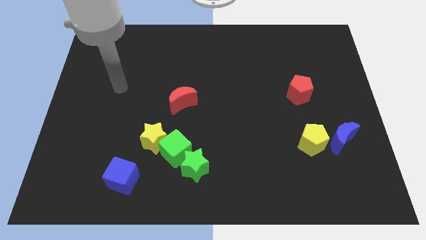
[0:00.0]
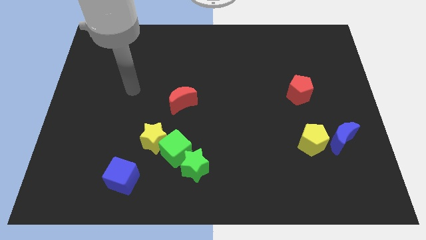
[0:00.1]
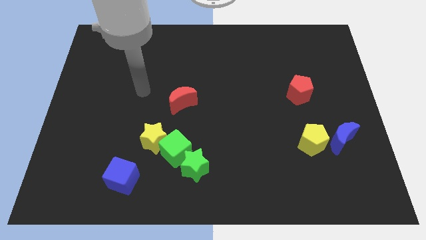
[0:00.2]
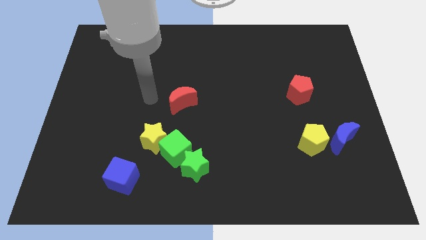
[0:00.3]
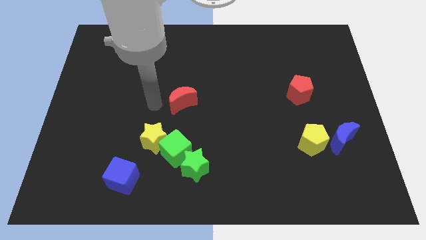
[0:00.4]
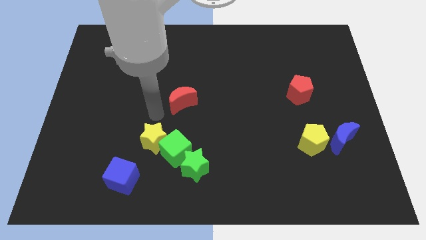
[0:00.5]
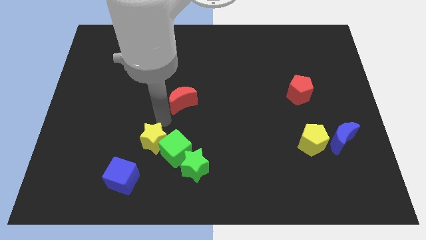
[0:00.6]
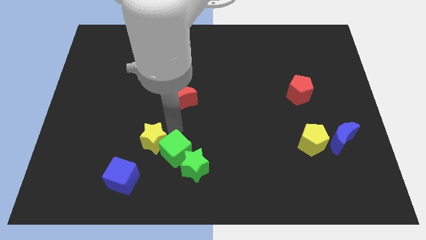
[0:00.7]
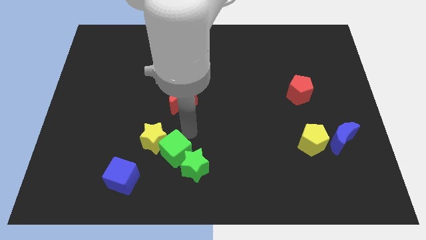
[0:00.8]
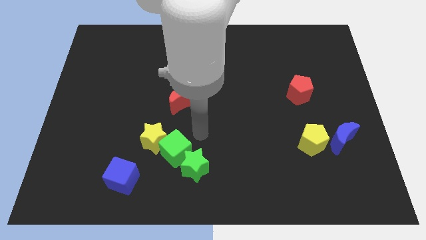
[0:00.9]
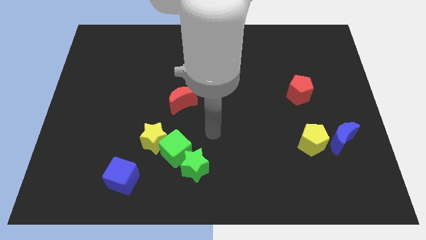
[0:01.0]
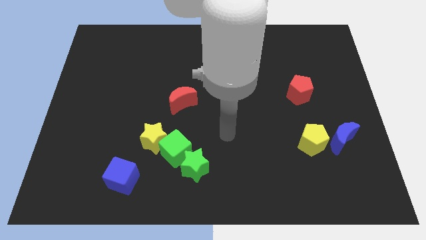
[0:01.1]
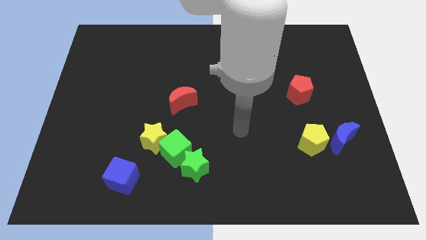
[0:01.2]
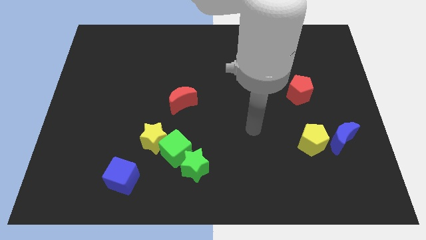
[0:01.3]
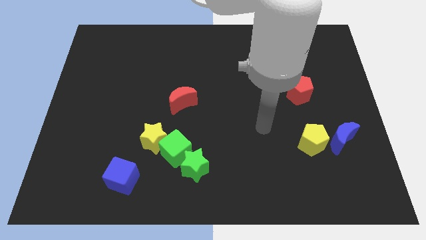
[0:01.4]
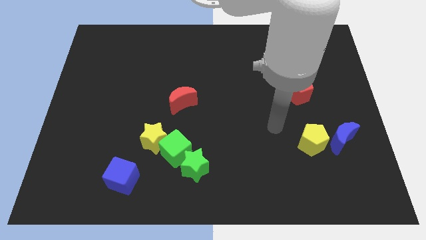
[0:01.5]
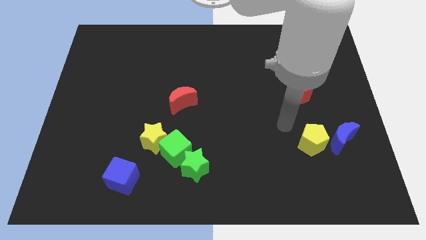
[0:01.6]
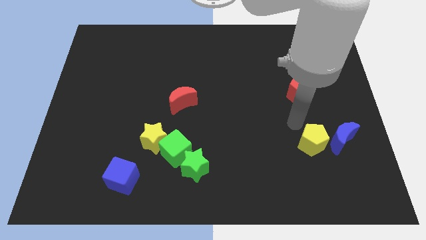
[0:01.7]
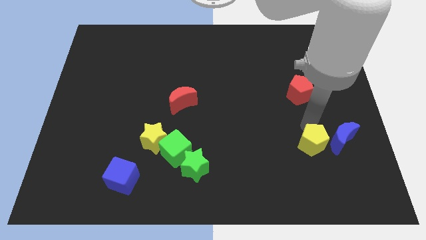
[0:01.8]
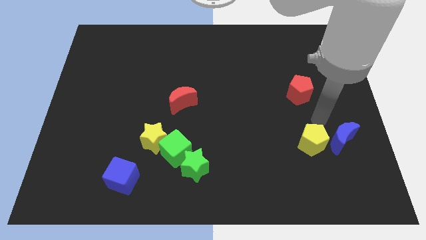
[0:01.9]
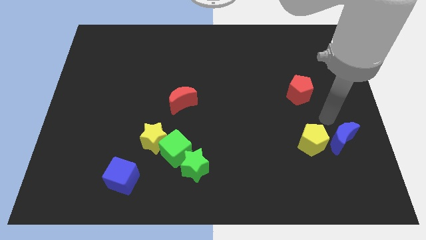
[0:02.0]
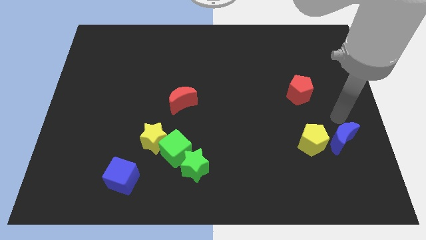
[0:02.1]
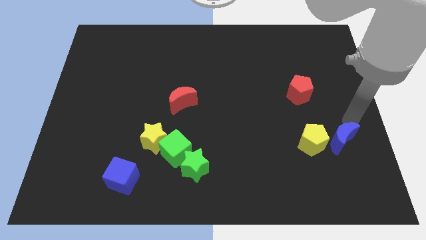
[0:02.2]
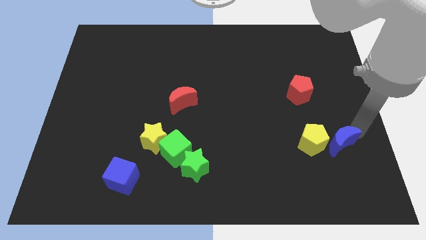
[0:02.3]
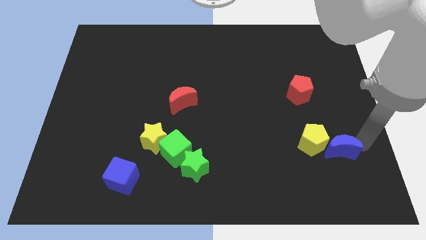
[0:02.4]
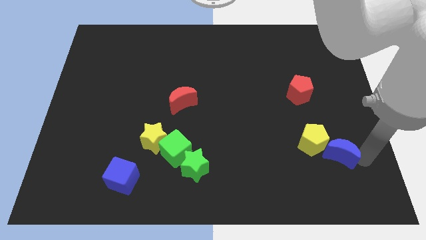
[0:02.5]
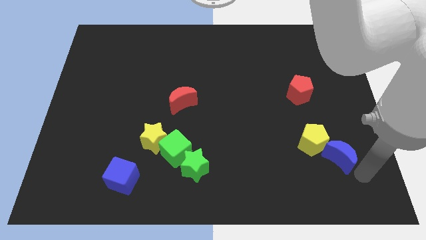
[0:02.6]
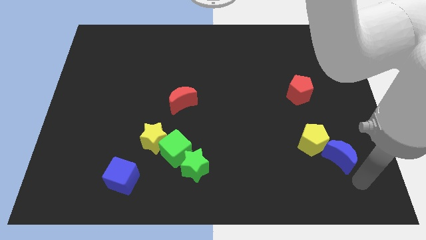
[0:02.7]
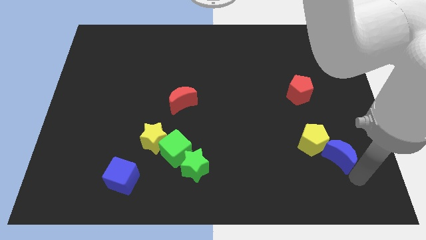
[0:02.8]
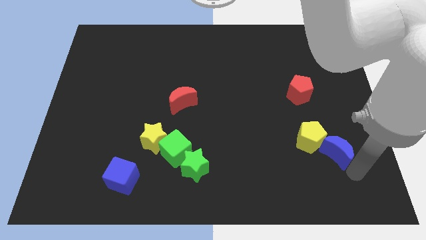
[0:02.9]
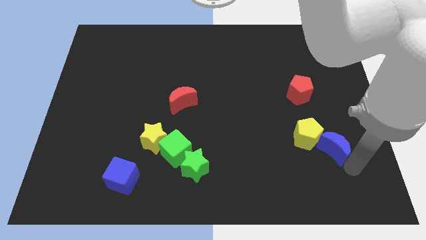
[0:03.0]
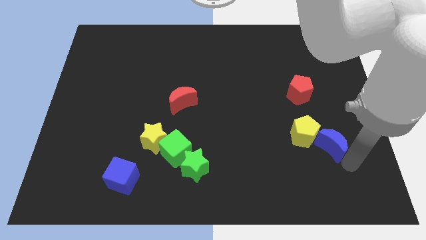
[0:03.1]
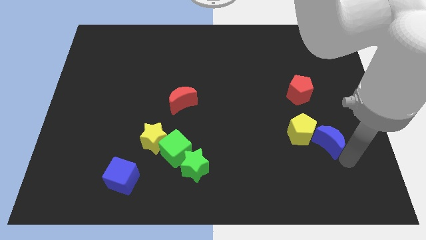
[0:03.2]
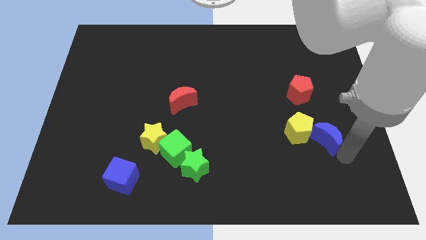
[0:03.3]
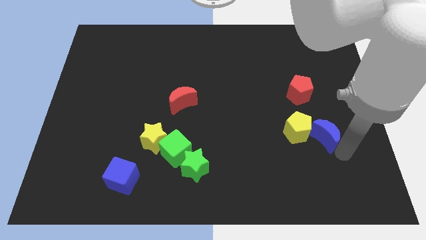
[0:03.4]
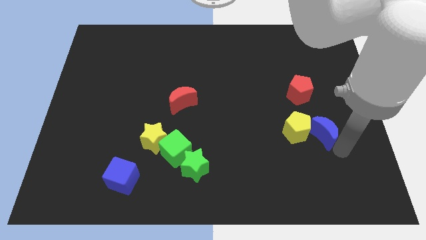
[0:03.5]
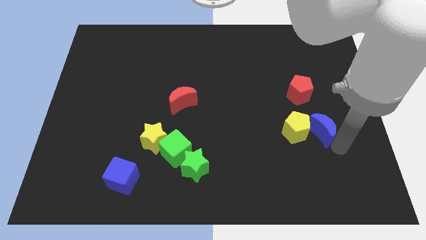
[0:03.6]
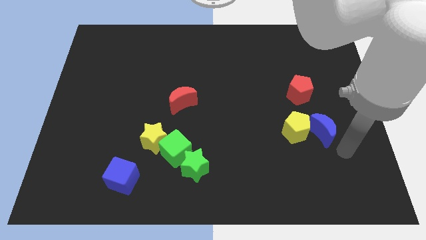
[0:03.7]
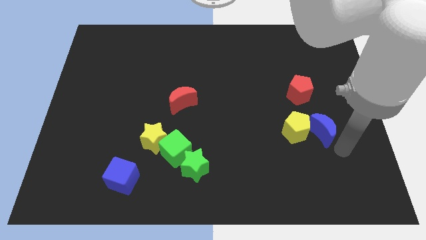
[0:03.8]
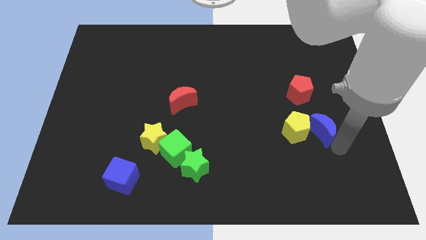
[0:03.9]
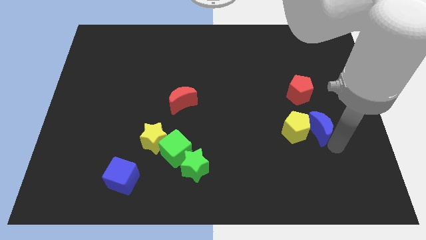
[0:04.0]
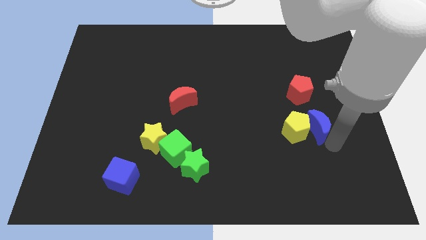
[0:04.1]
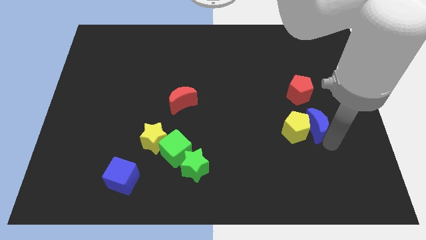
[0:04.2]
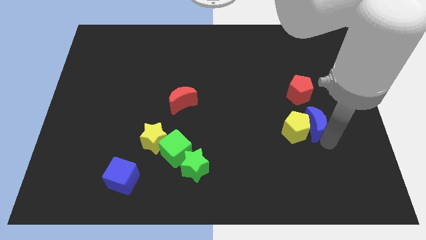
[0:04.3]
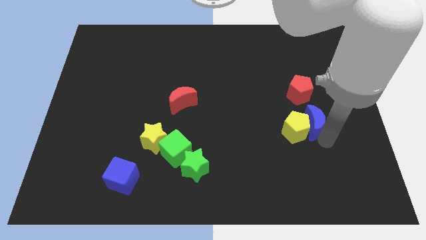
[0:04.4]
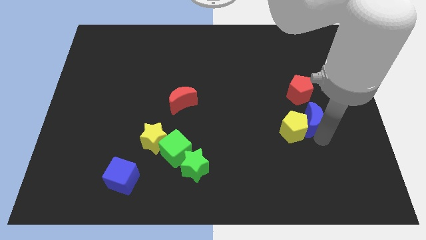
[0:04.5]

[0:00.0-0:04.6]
move the blue moon upwards and left a little bit

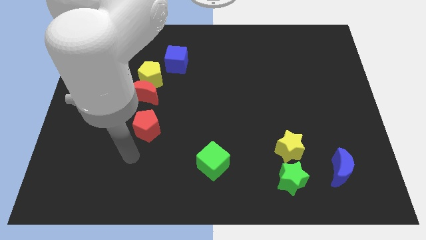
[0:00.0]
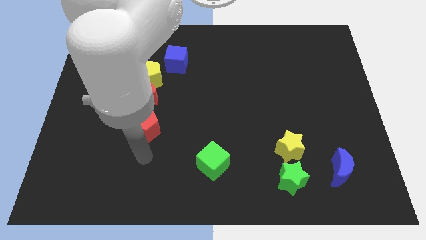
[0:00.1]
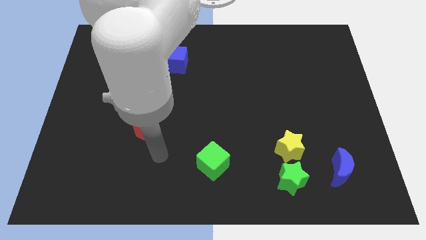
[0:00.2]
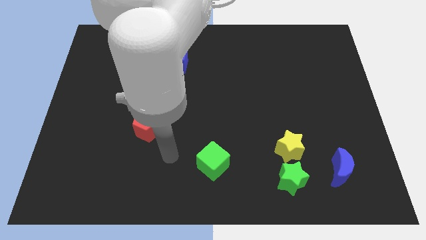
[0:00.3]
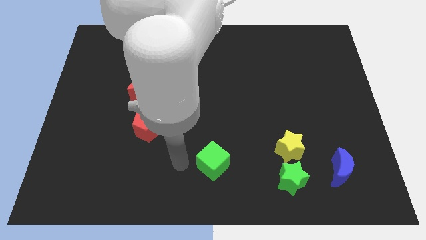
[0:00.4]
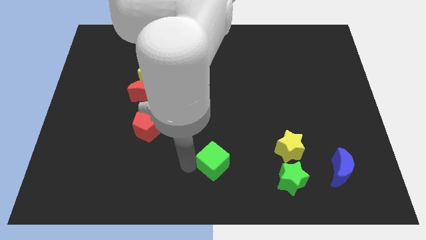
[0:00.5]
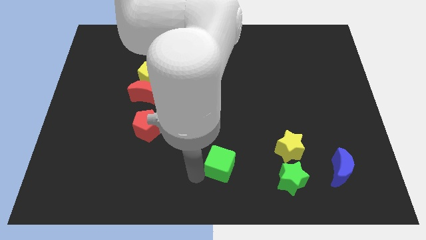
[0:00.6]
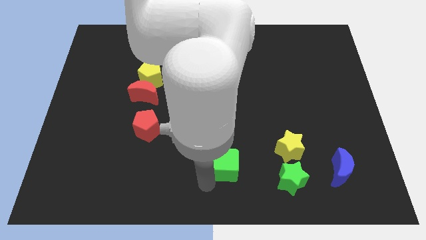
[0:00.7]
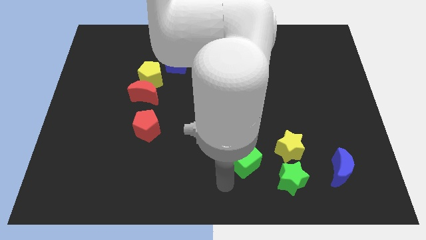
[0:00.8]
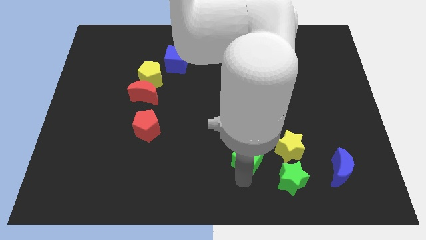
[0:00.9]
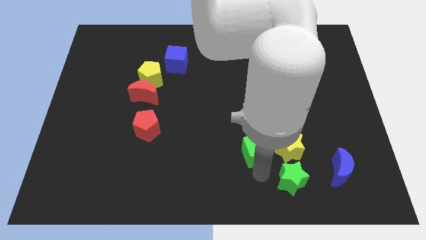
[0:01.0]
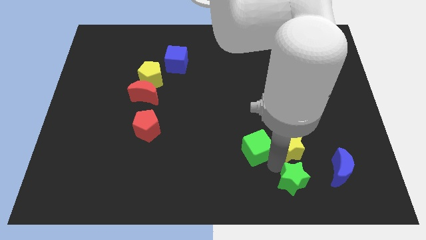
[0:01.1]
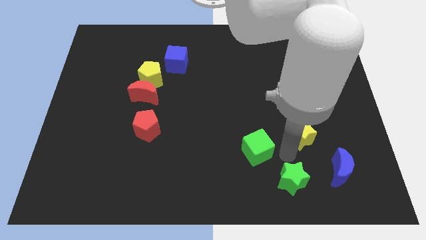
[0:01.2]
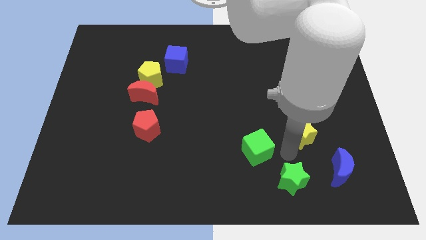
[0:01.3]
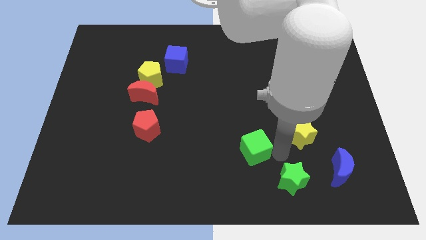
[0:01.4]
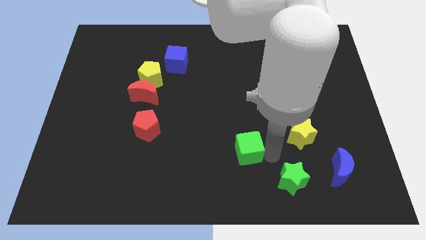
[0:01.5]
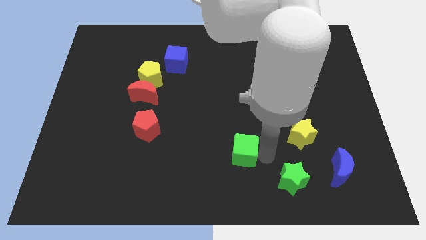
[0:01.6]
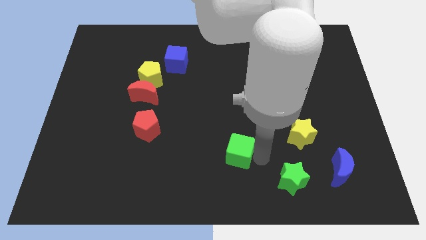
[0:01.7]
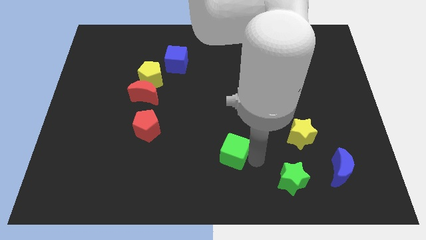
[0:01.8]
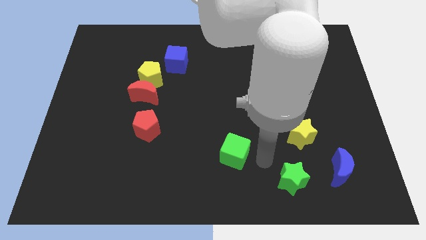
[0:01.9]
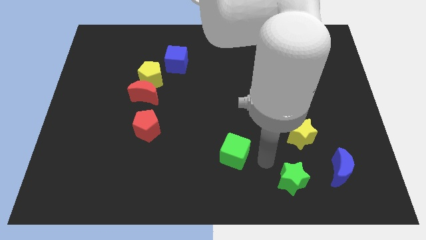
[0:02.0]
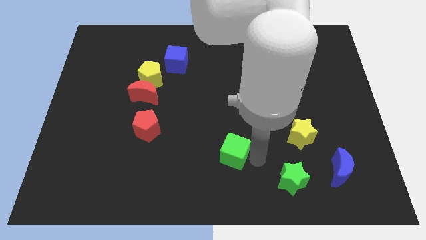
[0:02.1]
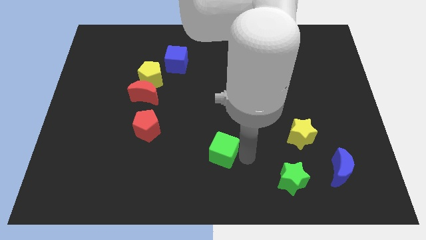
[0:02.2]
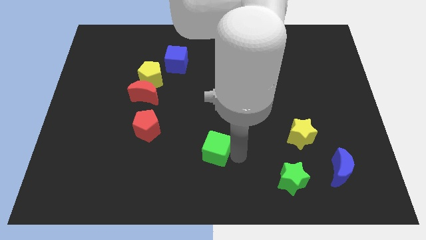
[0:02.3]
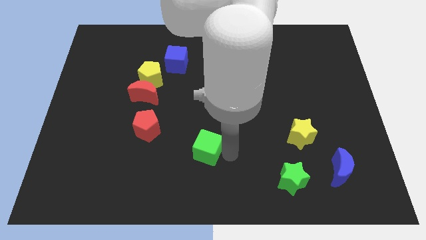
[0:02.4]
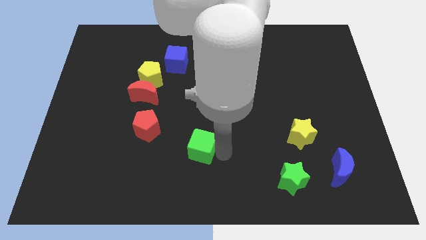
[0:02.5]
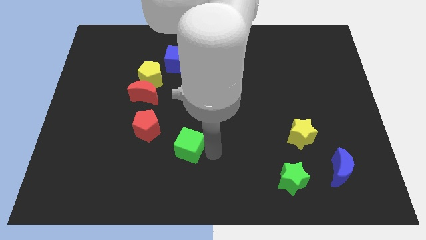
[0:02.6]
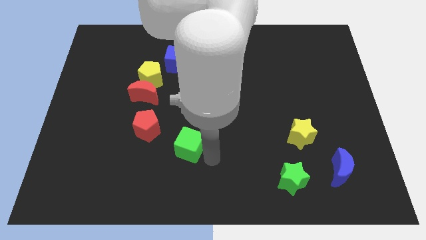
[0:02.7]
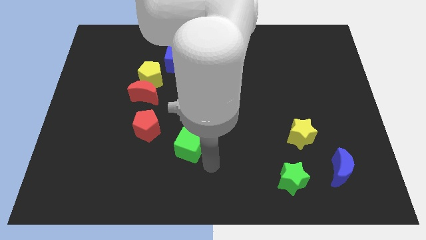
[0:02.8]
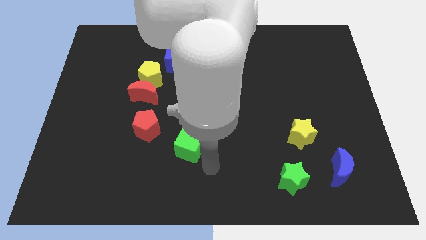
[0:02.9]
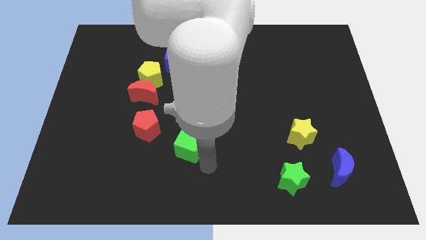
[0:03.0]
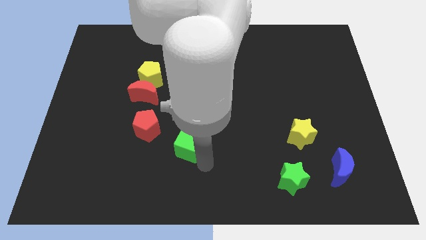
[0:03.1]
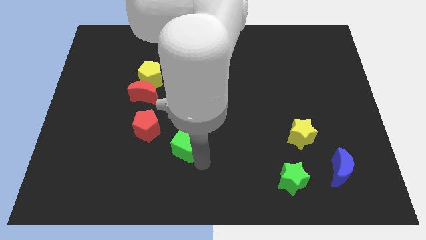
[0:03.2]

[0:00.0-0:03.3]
push the green cube up and left diagonally a little bit

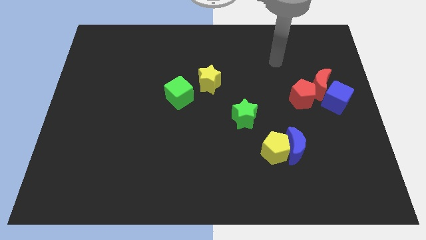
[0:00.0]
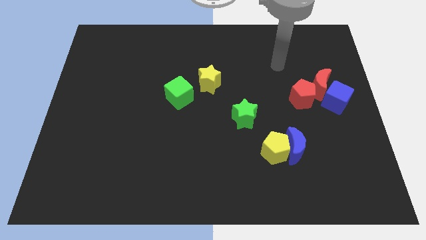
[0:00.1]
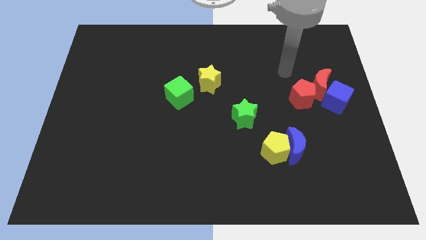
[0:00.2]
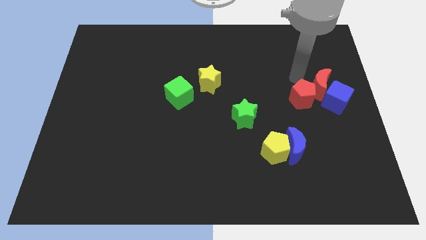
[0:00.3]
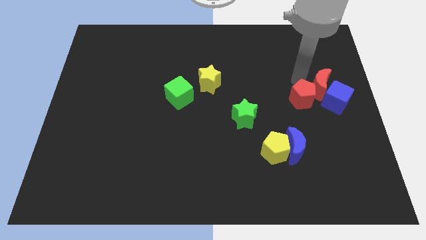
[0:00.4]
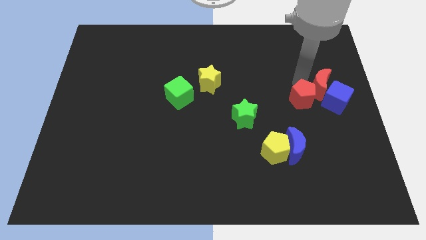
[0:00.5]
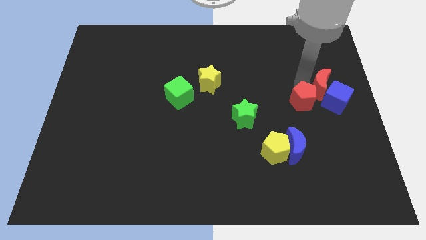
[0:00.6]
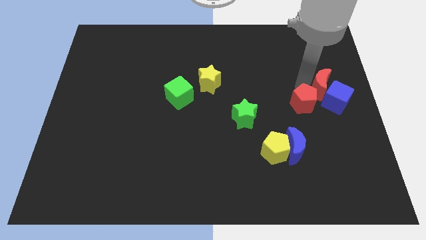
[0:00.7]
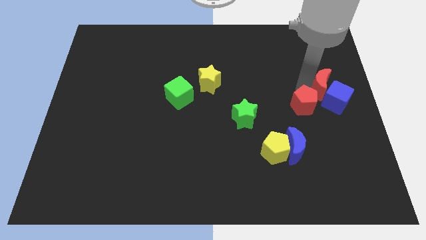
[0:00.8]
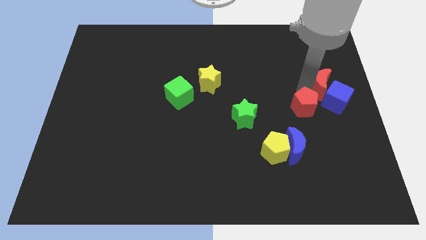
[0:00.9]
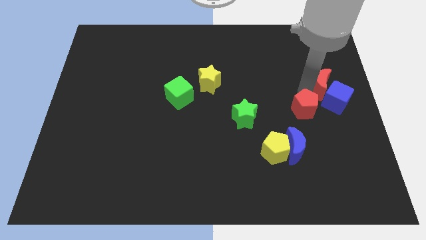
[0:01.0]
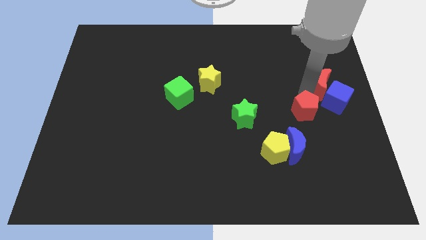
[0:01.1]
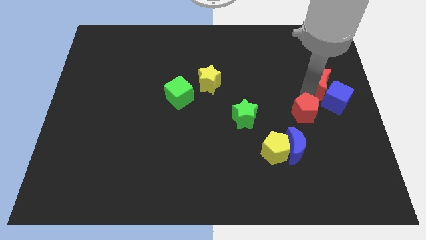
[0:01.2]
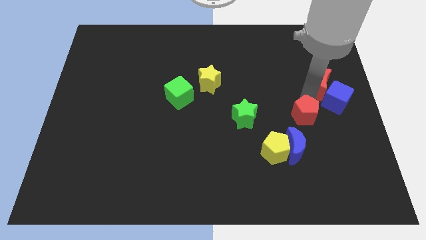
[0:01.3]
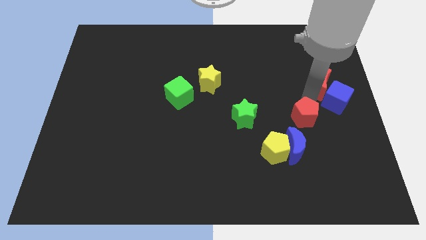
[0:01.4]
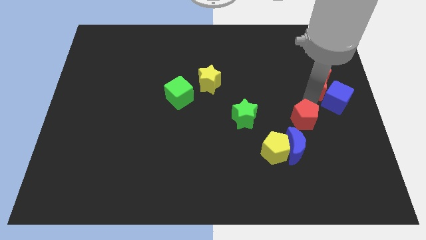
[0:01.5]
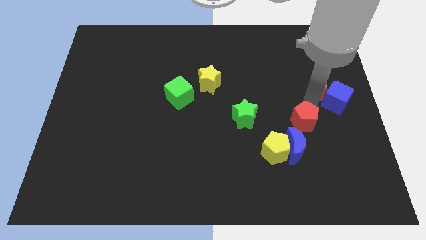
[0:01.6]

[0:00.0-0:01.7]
slide the red pentagon a bit downwards
